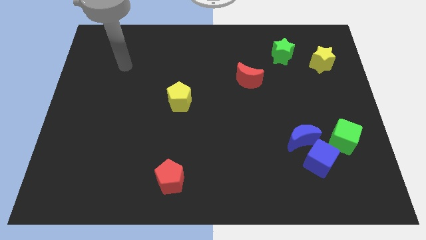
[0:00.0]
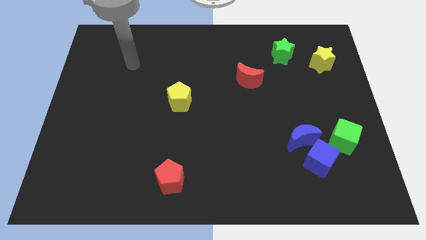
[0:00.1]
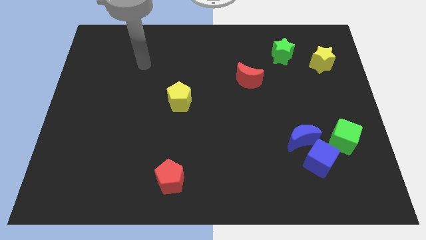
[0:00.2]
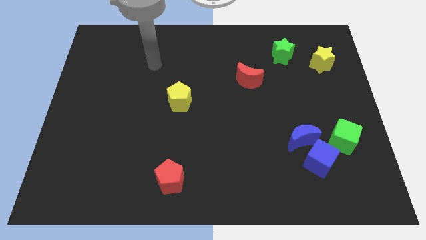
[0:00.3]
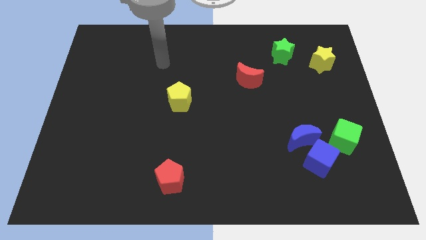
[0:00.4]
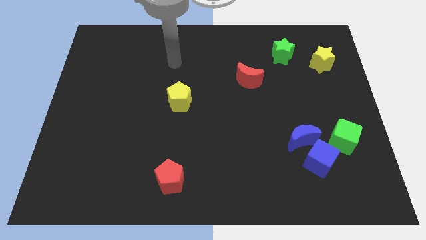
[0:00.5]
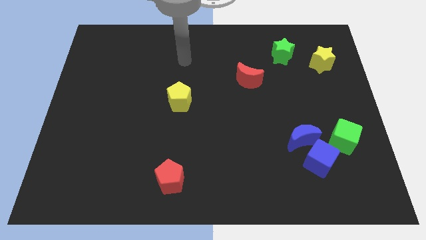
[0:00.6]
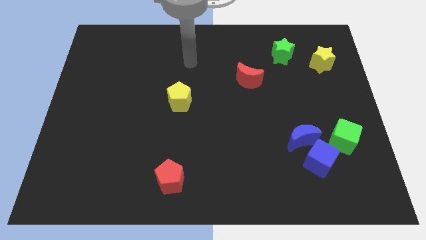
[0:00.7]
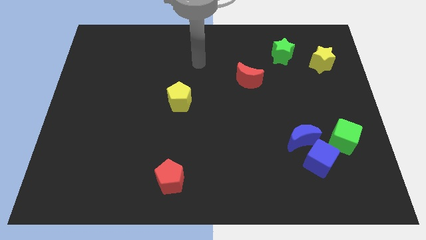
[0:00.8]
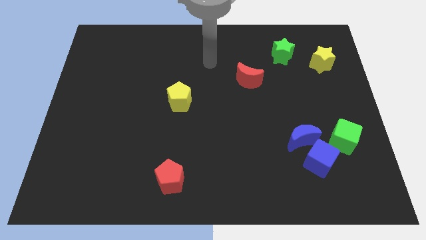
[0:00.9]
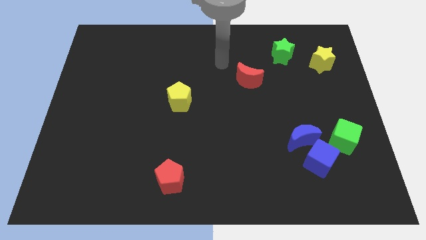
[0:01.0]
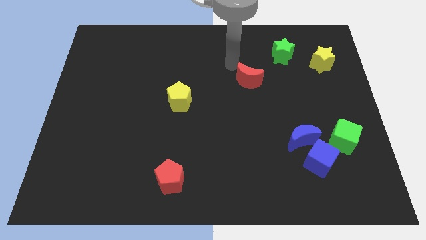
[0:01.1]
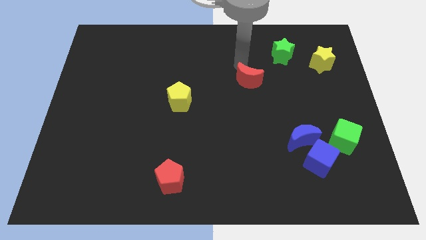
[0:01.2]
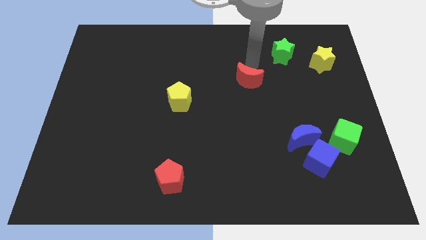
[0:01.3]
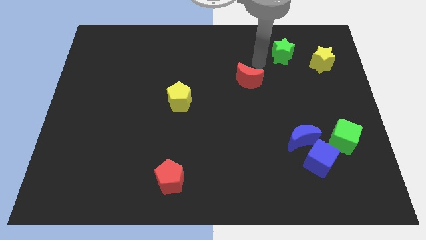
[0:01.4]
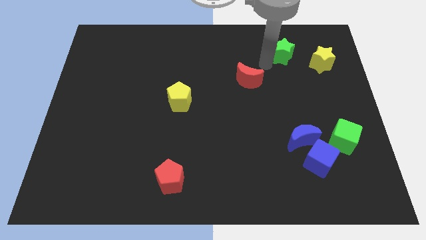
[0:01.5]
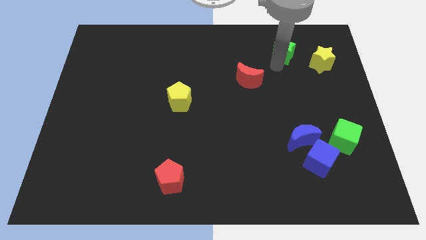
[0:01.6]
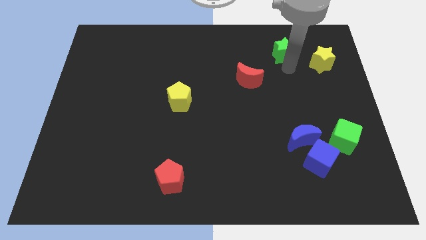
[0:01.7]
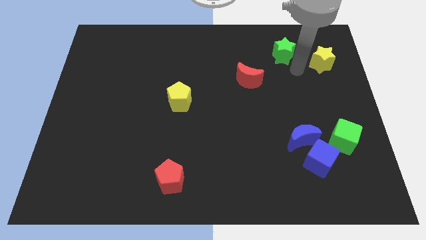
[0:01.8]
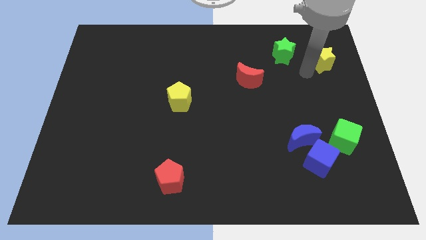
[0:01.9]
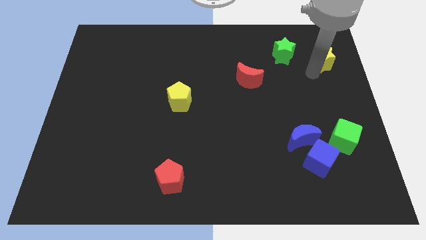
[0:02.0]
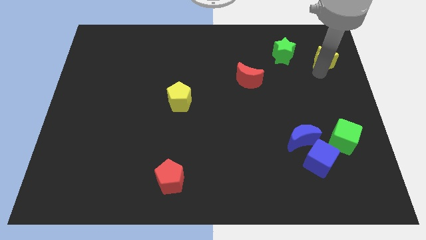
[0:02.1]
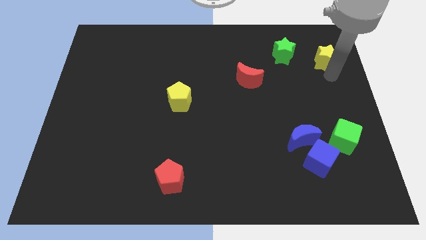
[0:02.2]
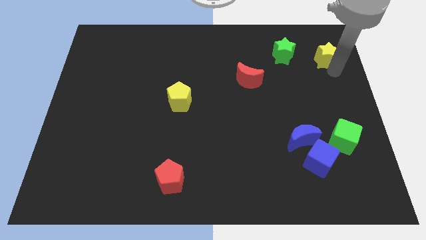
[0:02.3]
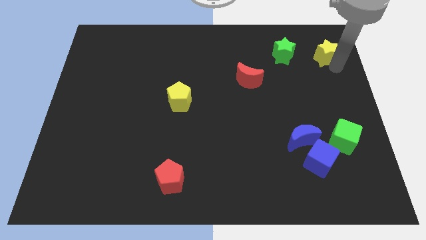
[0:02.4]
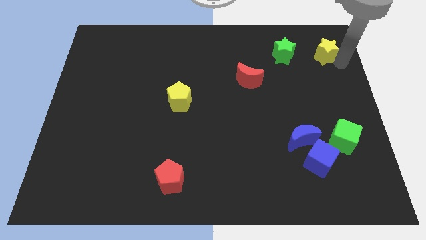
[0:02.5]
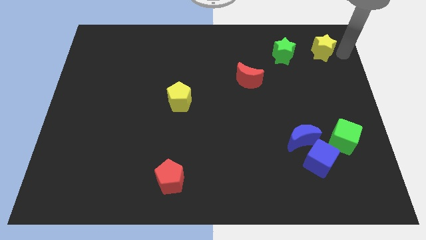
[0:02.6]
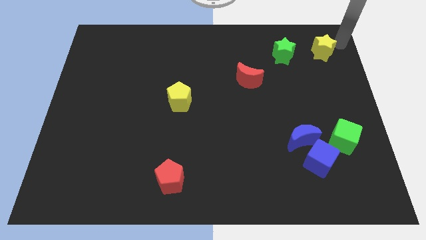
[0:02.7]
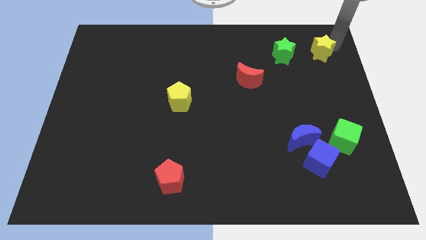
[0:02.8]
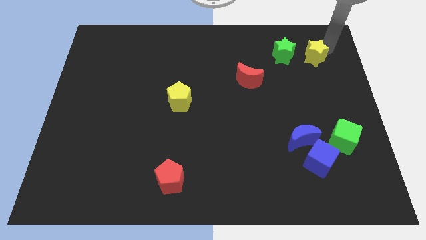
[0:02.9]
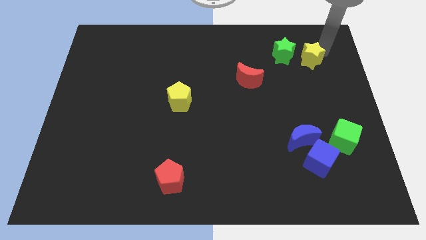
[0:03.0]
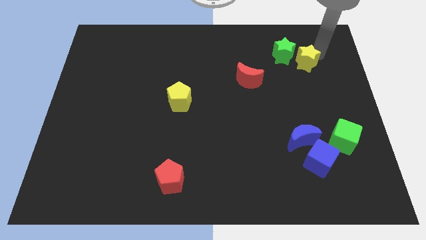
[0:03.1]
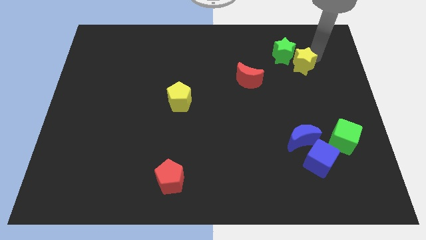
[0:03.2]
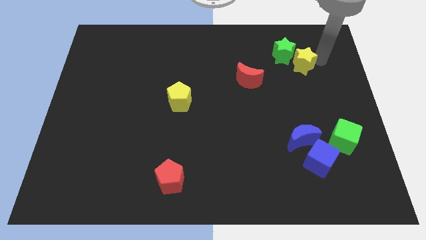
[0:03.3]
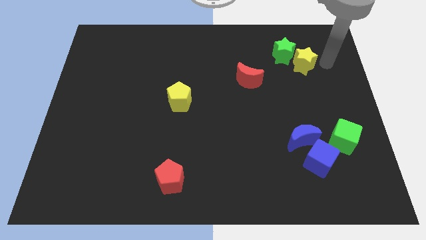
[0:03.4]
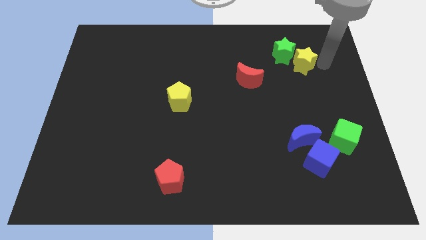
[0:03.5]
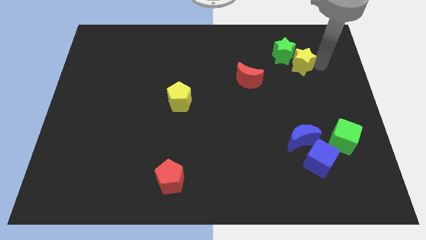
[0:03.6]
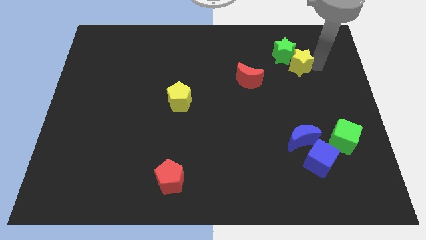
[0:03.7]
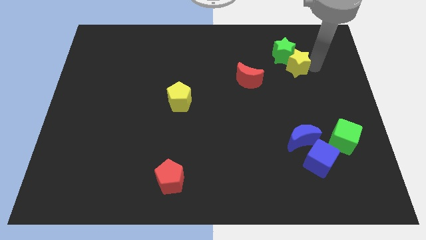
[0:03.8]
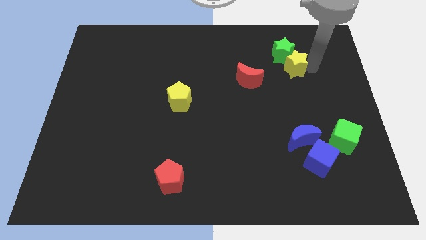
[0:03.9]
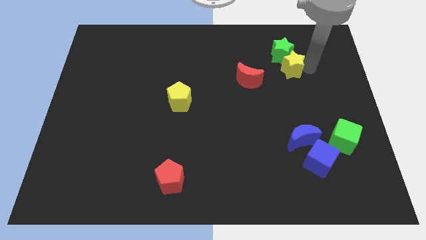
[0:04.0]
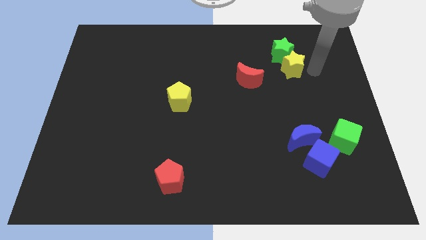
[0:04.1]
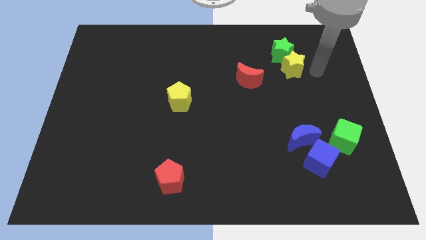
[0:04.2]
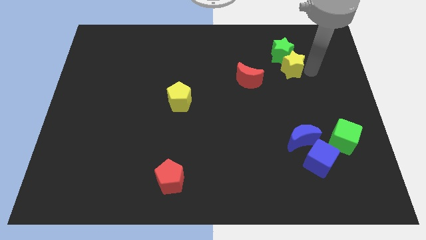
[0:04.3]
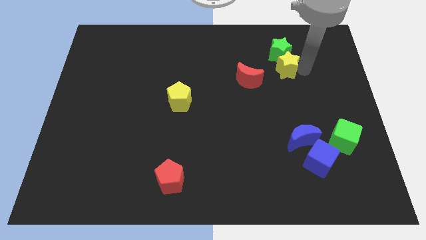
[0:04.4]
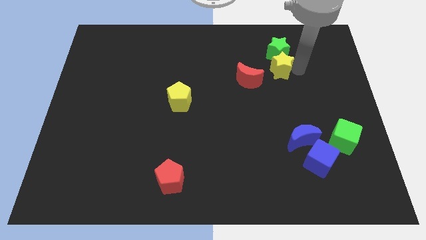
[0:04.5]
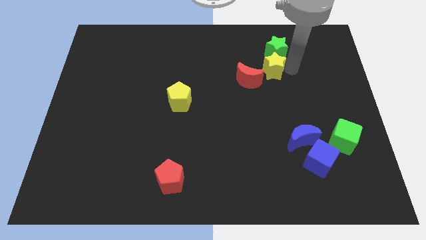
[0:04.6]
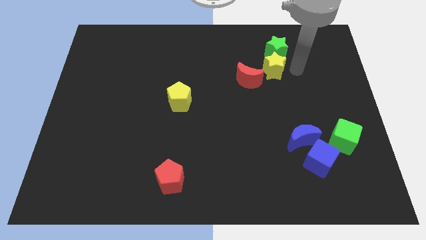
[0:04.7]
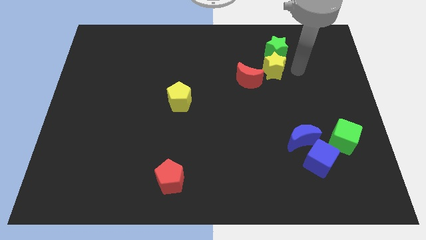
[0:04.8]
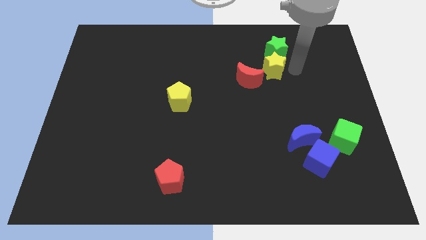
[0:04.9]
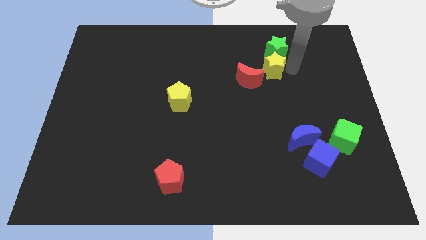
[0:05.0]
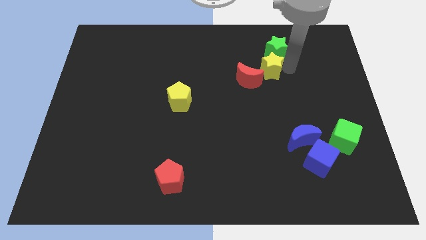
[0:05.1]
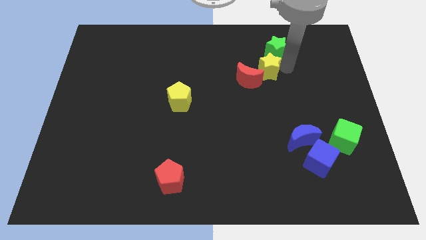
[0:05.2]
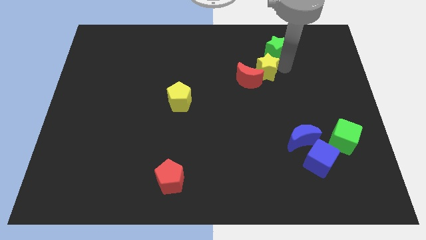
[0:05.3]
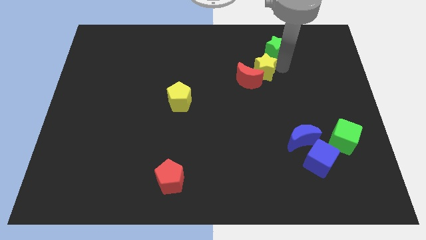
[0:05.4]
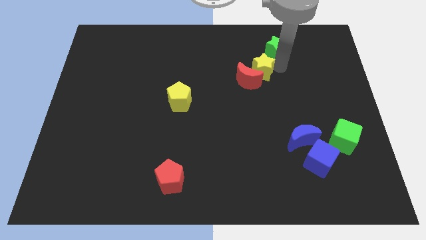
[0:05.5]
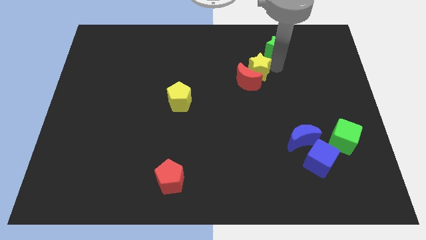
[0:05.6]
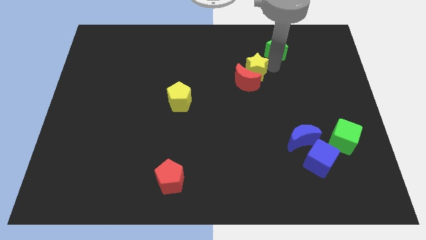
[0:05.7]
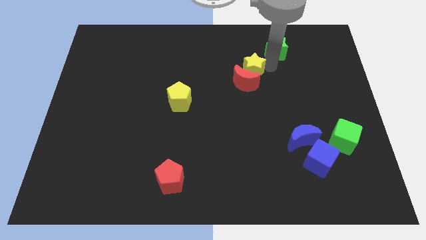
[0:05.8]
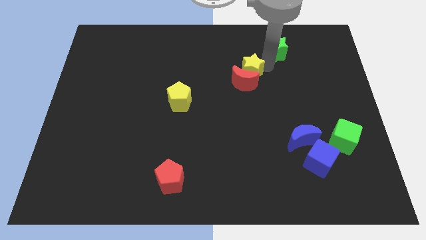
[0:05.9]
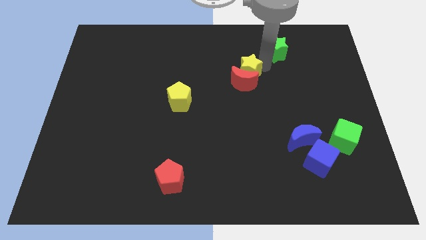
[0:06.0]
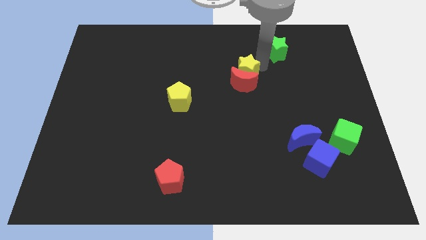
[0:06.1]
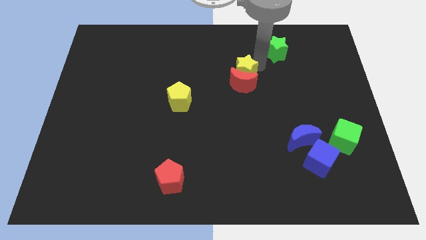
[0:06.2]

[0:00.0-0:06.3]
push the yellow star left

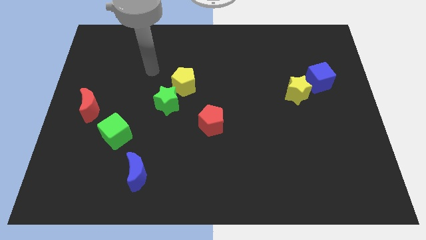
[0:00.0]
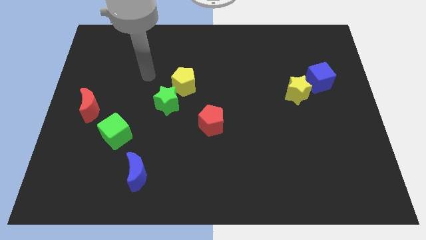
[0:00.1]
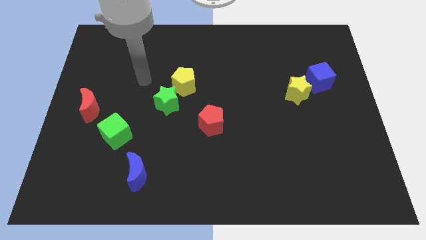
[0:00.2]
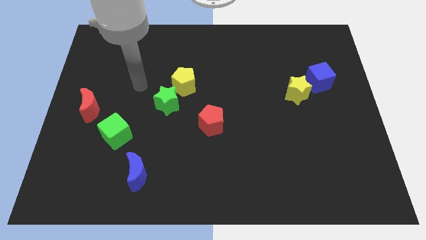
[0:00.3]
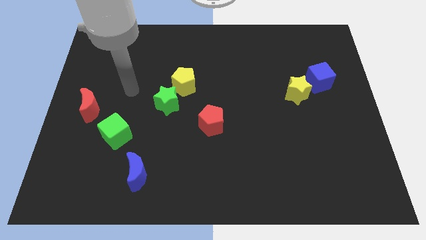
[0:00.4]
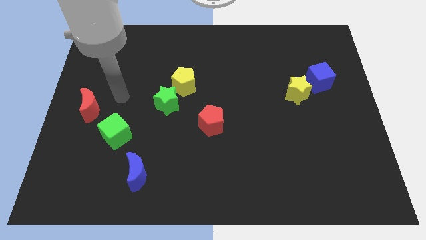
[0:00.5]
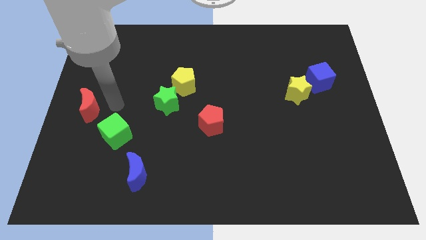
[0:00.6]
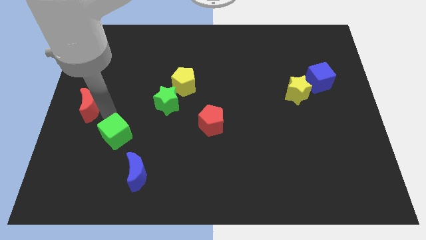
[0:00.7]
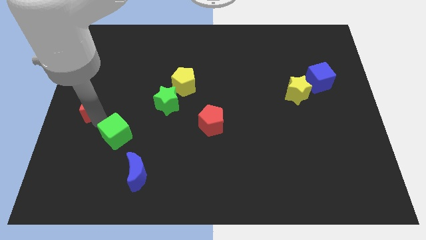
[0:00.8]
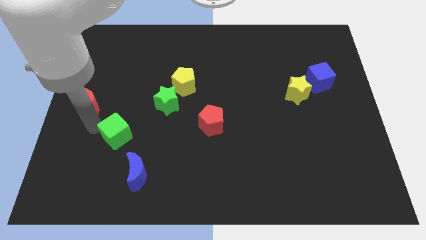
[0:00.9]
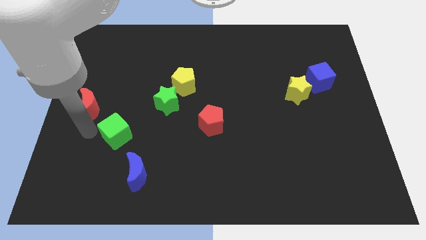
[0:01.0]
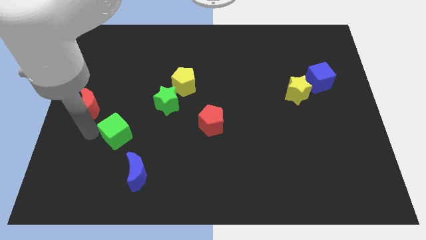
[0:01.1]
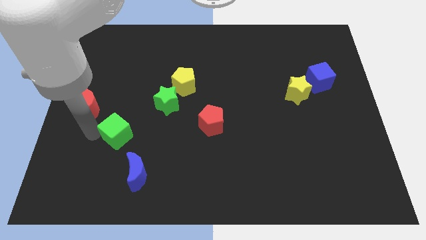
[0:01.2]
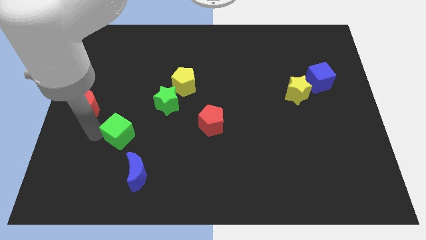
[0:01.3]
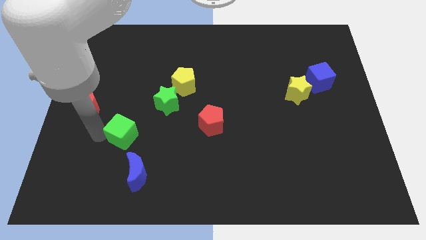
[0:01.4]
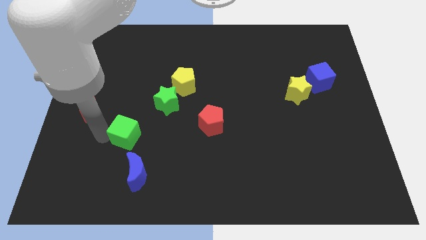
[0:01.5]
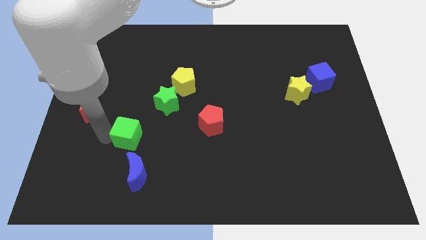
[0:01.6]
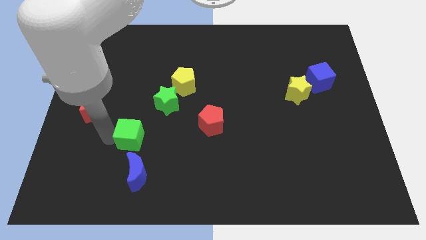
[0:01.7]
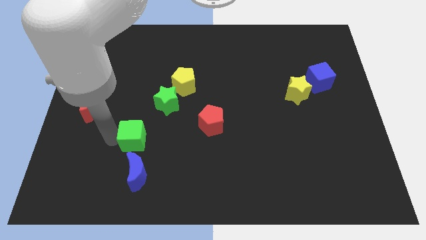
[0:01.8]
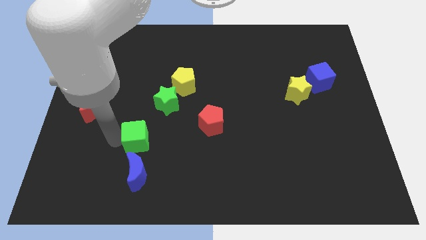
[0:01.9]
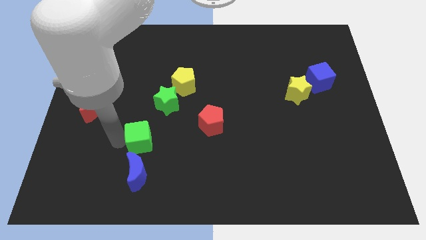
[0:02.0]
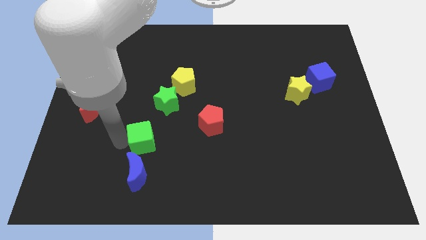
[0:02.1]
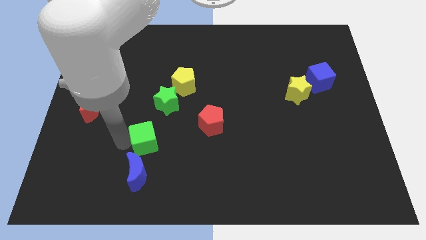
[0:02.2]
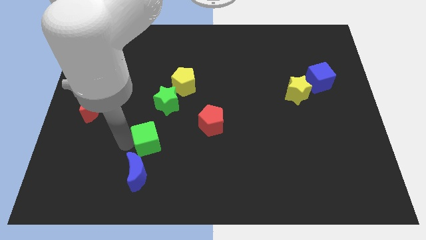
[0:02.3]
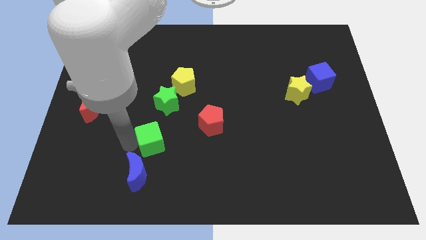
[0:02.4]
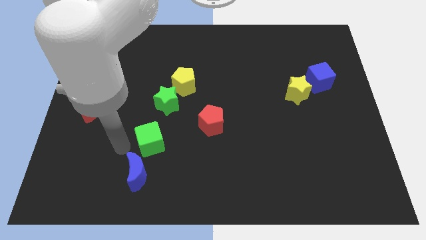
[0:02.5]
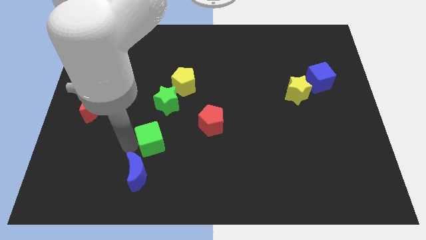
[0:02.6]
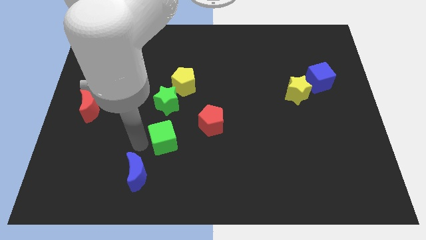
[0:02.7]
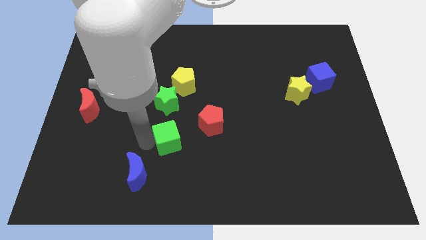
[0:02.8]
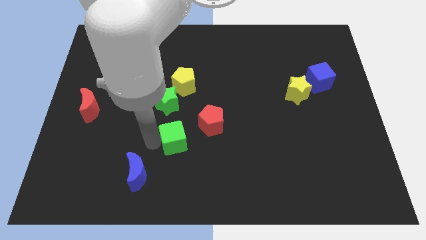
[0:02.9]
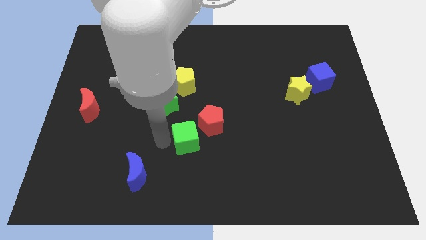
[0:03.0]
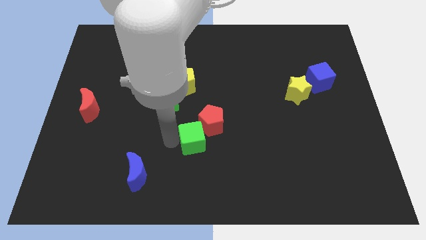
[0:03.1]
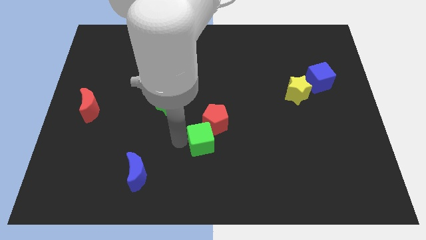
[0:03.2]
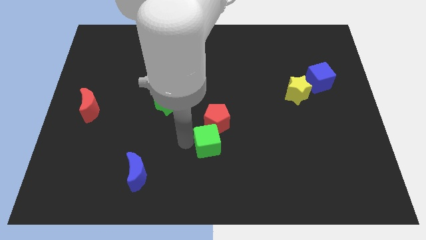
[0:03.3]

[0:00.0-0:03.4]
push the green cube to the right
